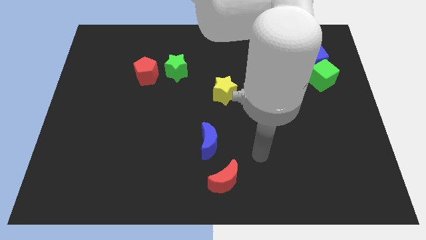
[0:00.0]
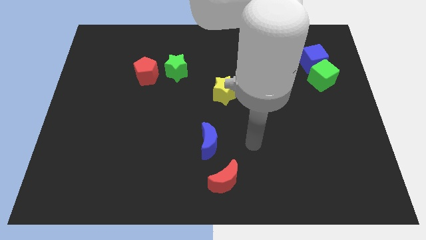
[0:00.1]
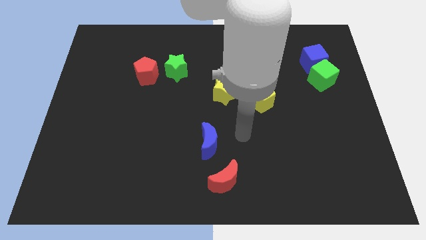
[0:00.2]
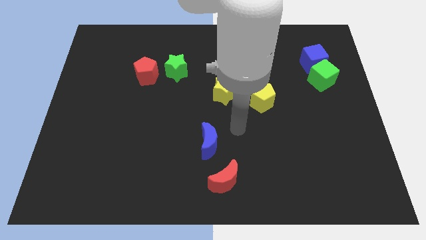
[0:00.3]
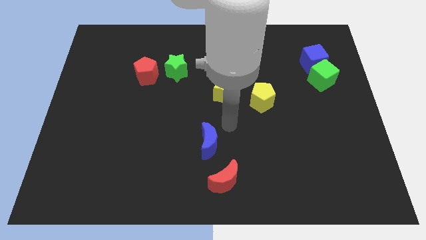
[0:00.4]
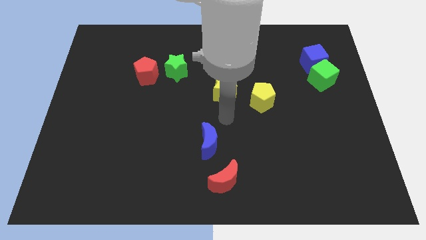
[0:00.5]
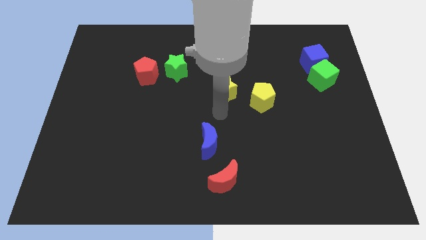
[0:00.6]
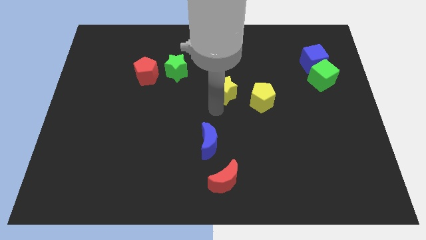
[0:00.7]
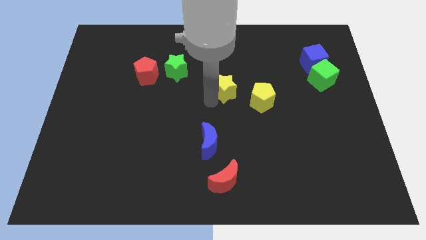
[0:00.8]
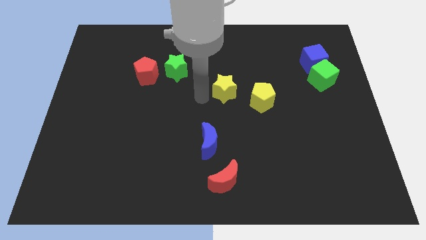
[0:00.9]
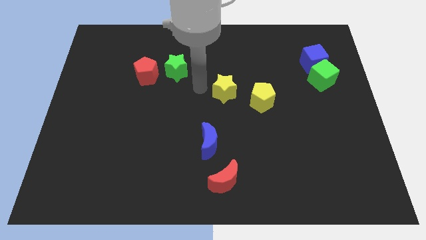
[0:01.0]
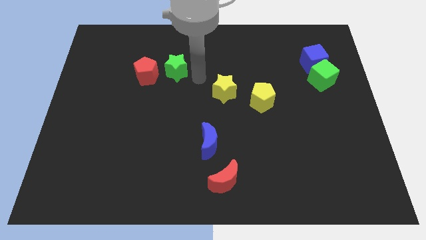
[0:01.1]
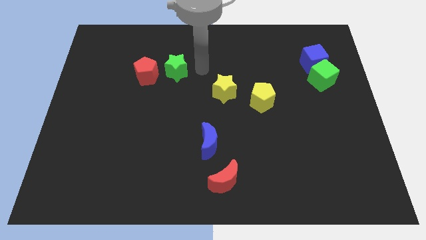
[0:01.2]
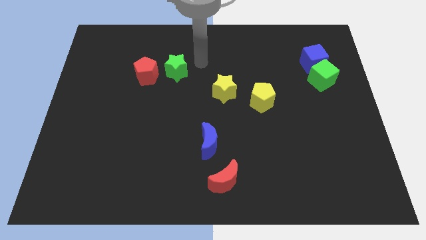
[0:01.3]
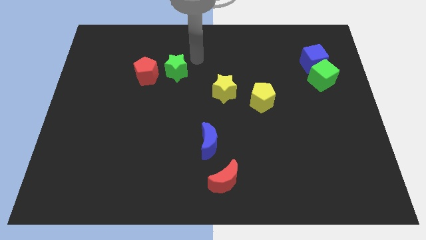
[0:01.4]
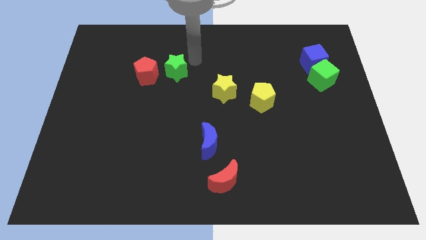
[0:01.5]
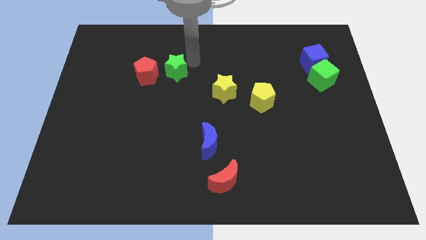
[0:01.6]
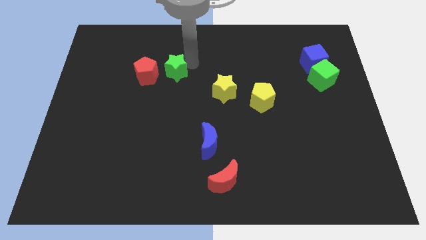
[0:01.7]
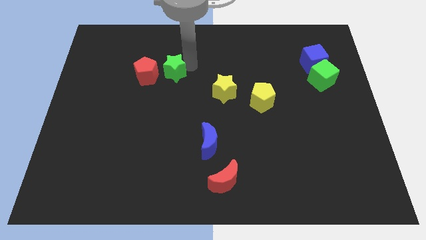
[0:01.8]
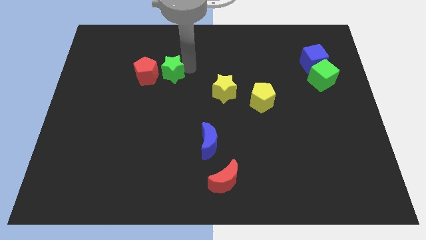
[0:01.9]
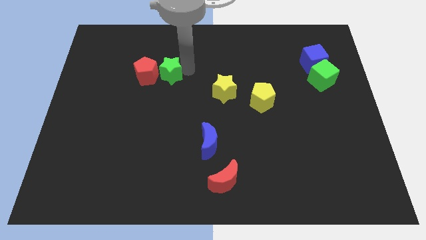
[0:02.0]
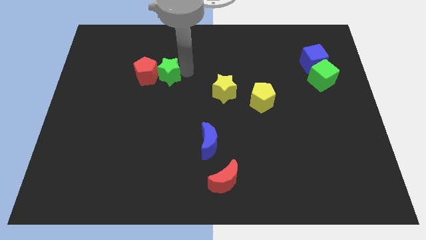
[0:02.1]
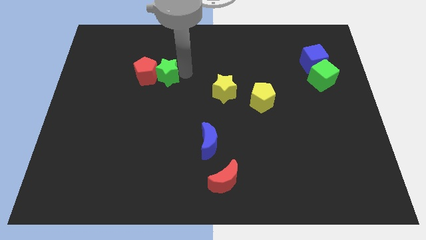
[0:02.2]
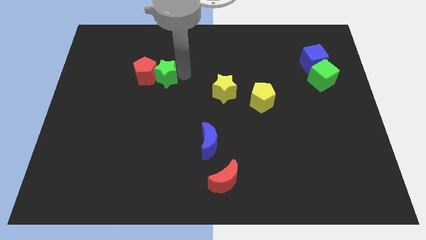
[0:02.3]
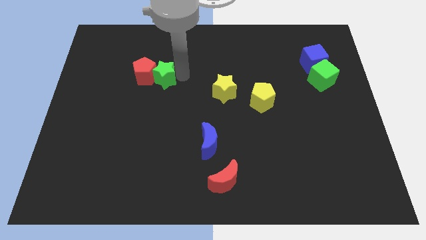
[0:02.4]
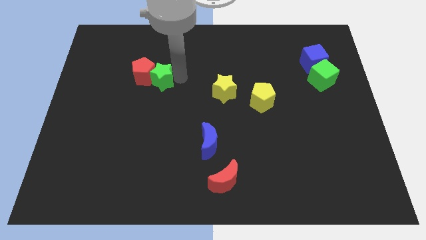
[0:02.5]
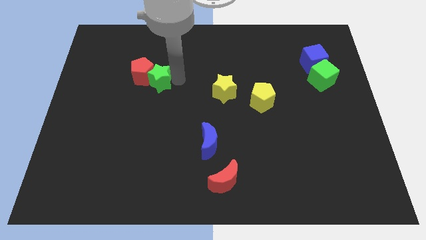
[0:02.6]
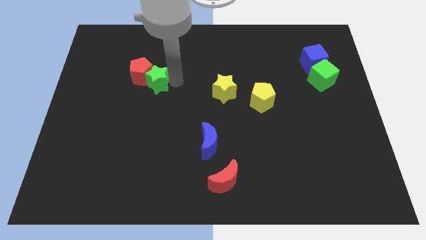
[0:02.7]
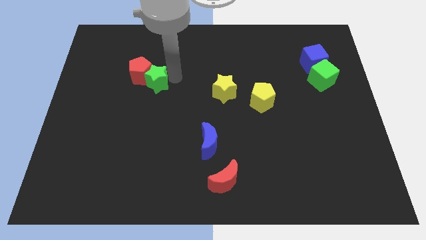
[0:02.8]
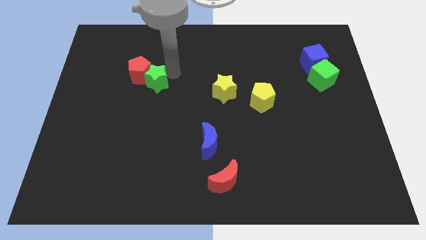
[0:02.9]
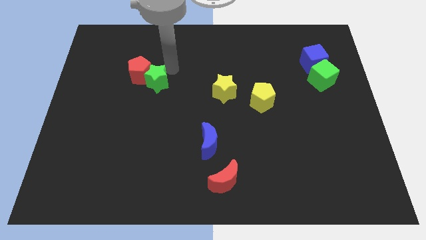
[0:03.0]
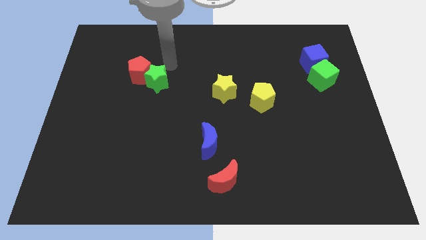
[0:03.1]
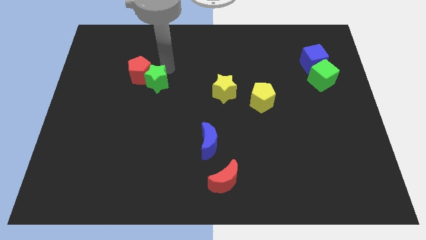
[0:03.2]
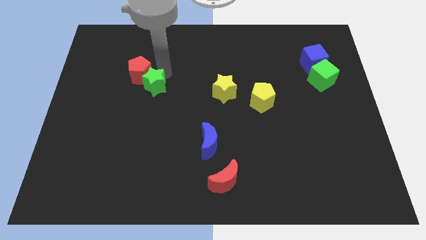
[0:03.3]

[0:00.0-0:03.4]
move the green star a bit down and to the left diagonally

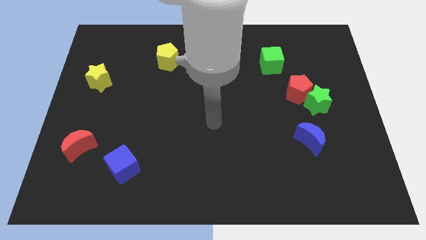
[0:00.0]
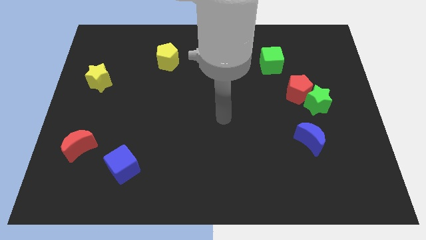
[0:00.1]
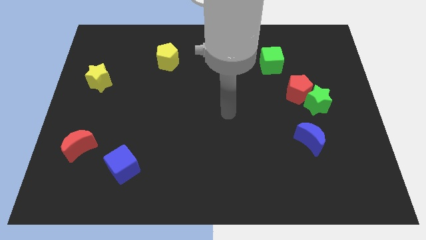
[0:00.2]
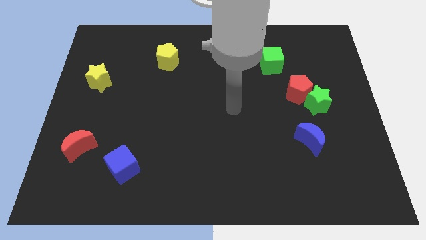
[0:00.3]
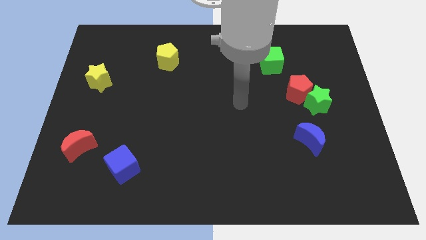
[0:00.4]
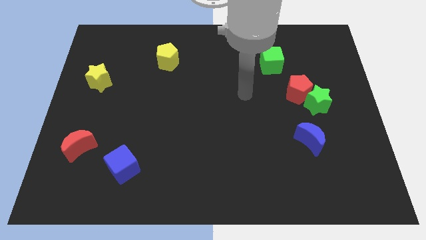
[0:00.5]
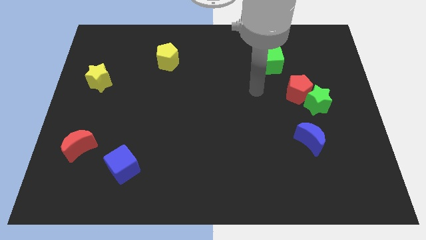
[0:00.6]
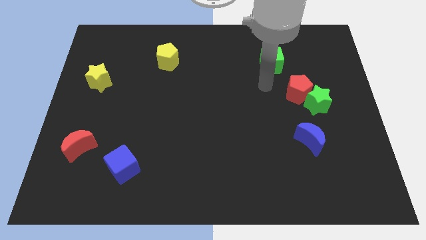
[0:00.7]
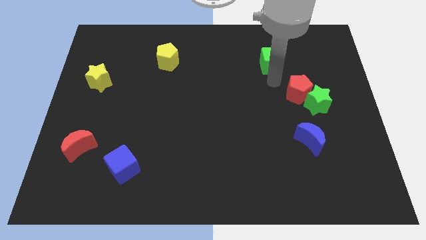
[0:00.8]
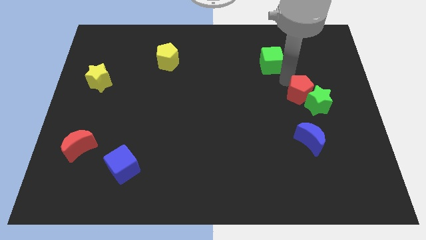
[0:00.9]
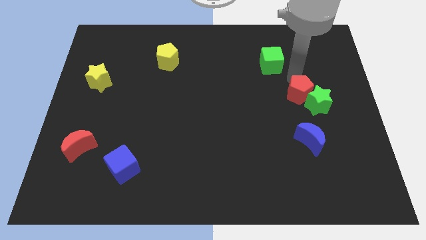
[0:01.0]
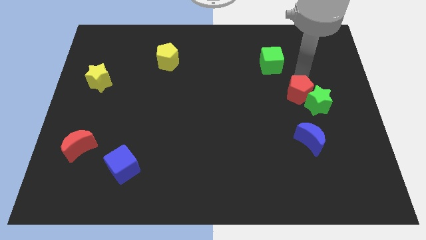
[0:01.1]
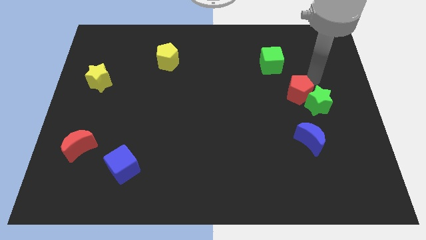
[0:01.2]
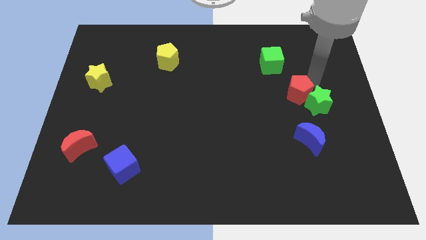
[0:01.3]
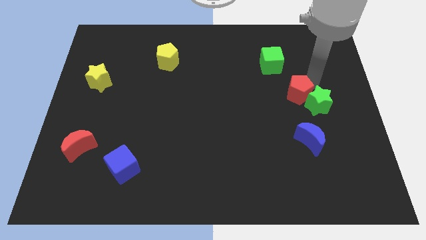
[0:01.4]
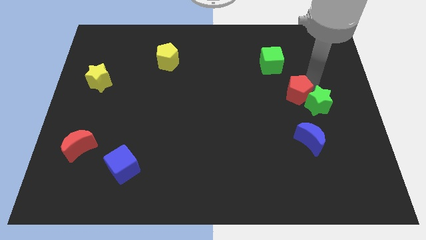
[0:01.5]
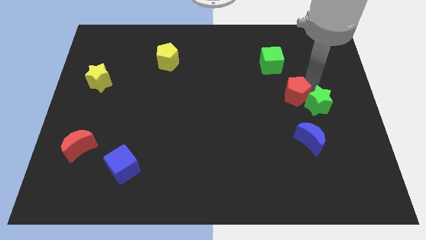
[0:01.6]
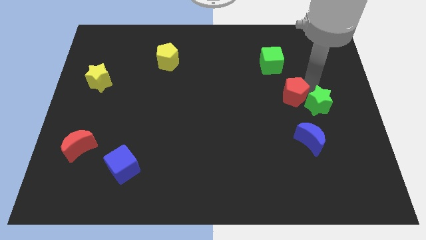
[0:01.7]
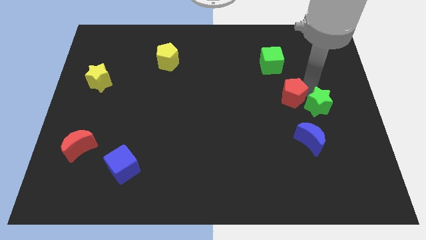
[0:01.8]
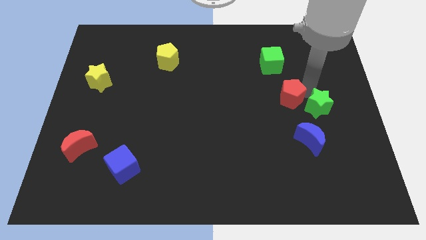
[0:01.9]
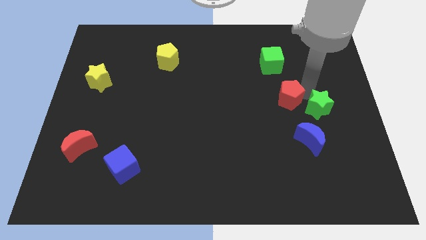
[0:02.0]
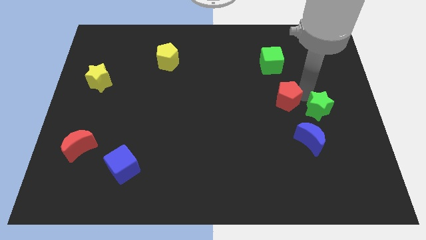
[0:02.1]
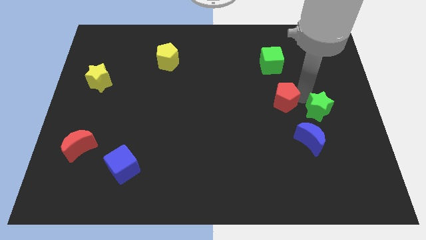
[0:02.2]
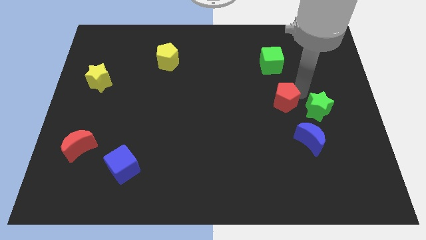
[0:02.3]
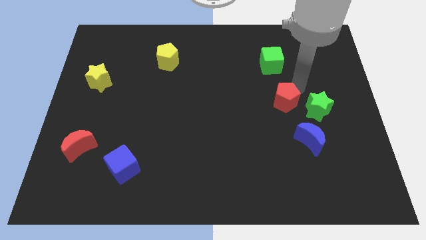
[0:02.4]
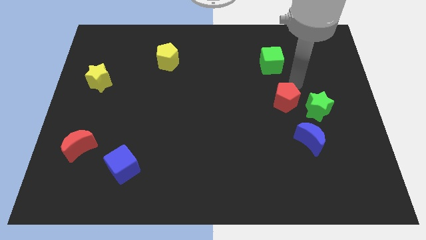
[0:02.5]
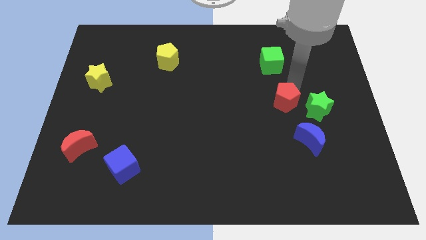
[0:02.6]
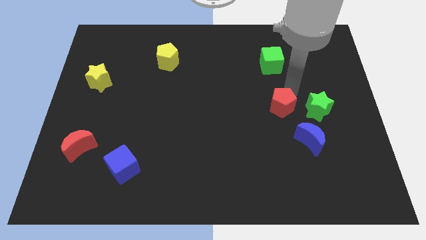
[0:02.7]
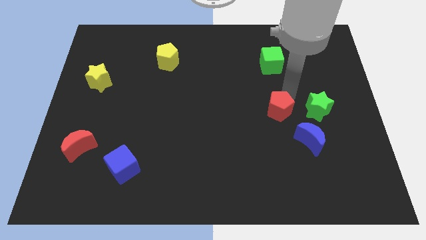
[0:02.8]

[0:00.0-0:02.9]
push the red pentagon downwards and then left slightly

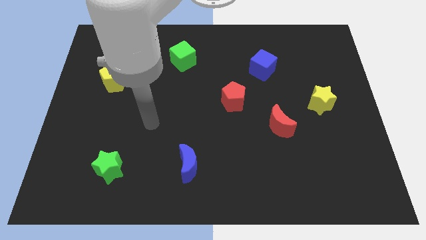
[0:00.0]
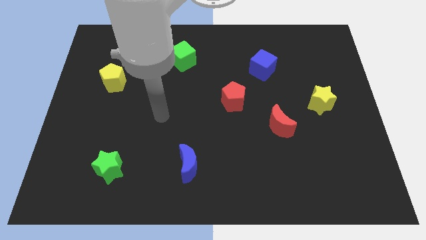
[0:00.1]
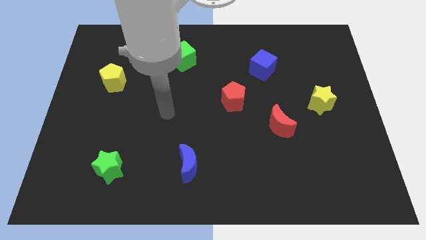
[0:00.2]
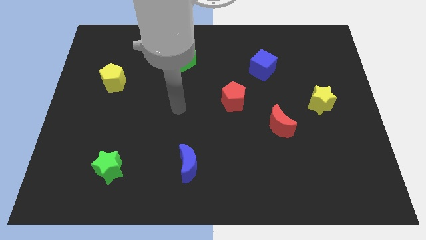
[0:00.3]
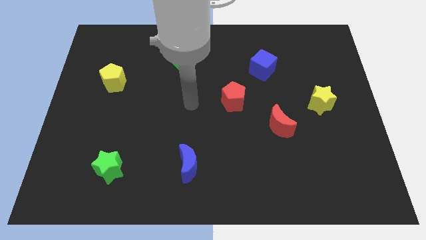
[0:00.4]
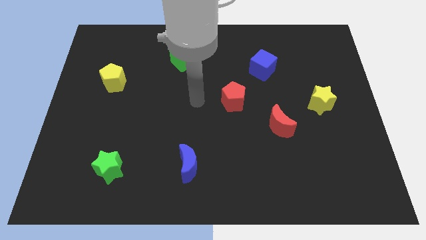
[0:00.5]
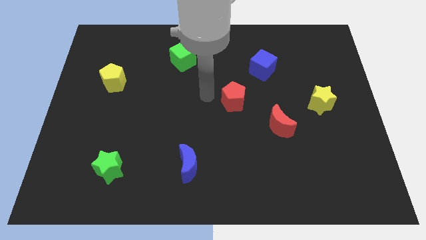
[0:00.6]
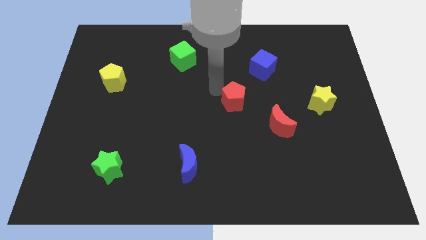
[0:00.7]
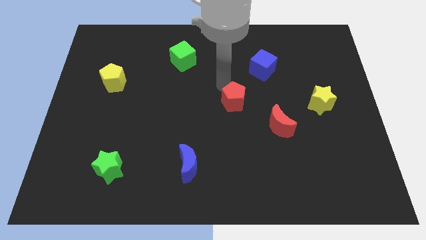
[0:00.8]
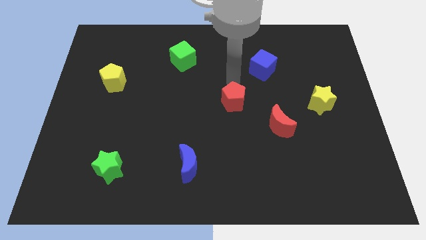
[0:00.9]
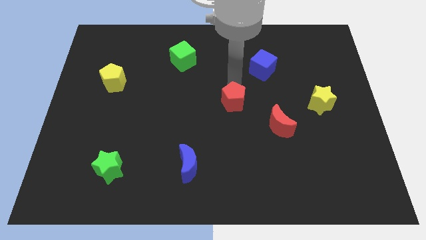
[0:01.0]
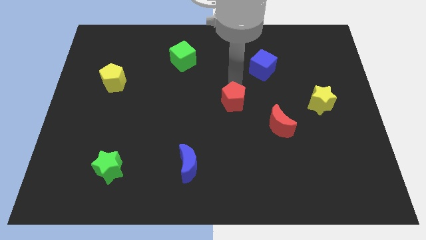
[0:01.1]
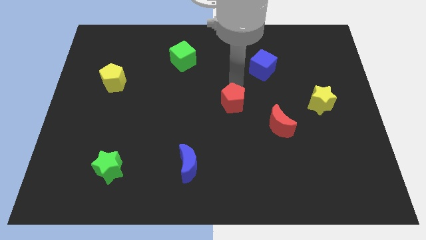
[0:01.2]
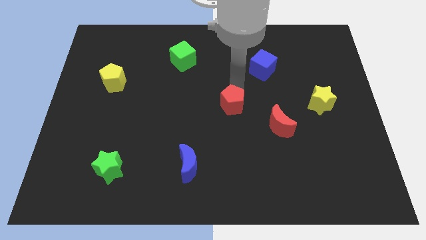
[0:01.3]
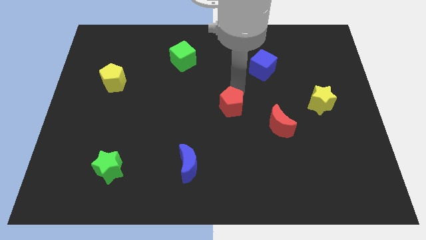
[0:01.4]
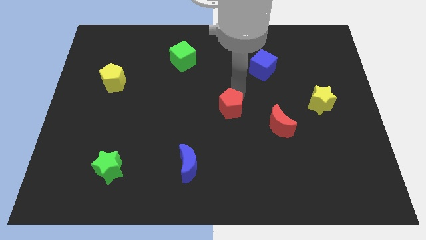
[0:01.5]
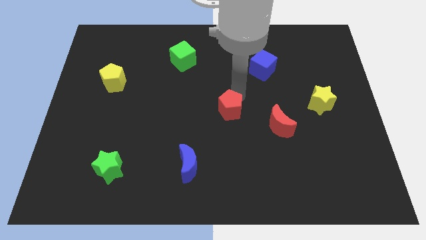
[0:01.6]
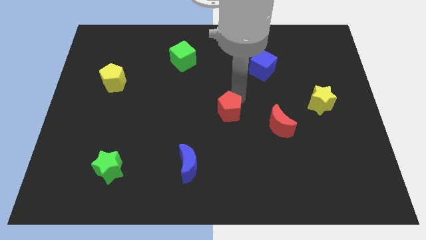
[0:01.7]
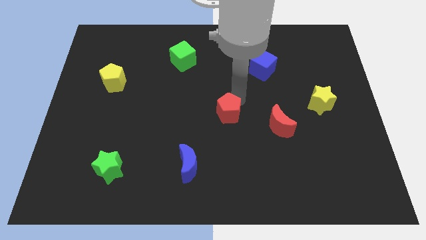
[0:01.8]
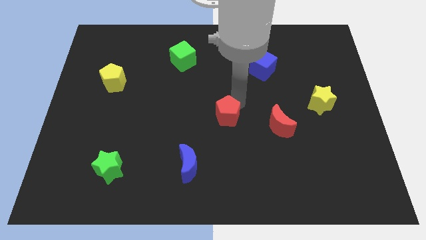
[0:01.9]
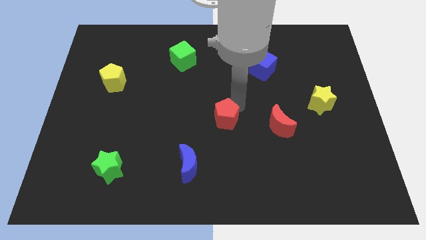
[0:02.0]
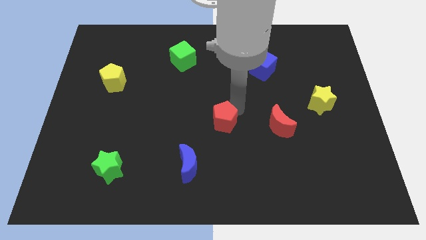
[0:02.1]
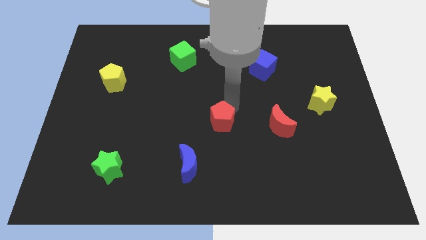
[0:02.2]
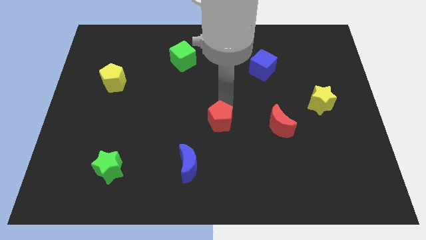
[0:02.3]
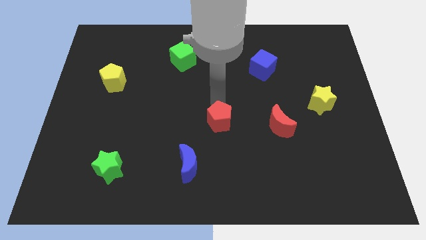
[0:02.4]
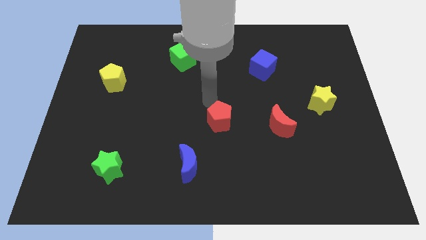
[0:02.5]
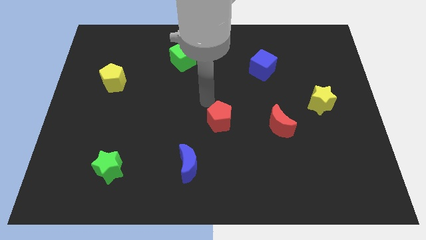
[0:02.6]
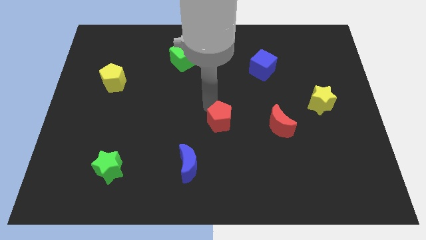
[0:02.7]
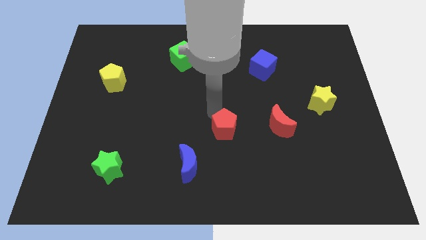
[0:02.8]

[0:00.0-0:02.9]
move the red pentagon downwards a little bit
